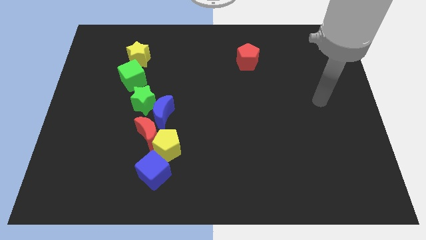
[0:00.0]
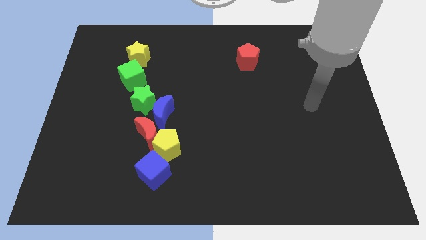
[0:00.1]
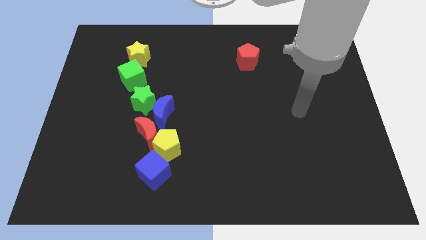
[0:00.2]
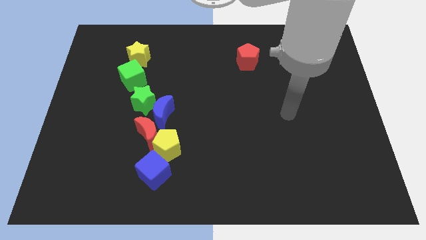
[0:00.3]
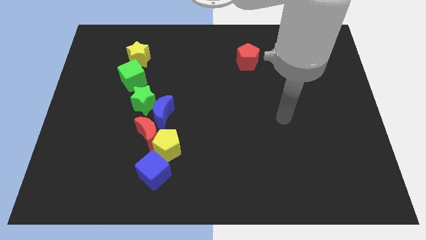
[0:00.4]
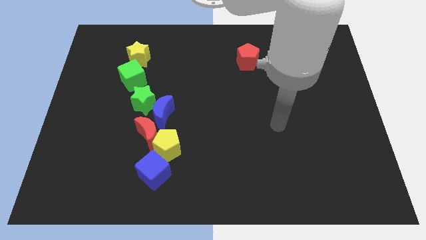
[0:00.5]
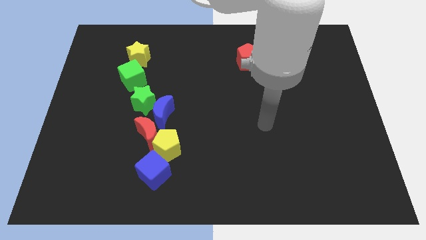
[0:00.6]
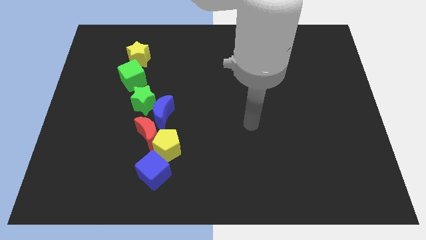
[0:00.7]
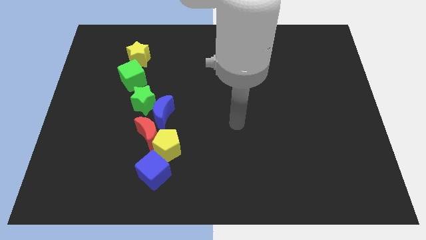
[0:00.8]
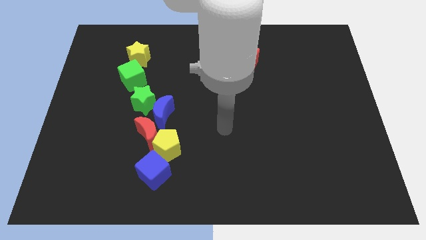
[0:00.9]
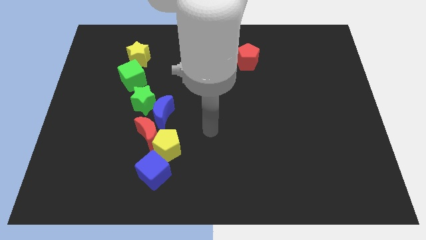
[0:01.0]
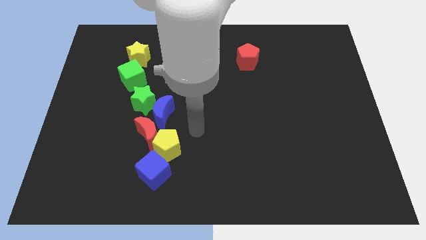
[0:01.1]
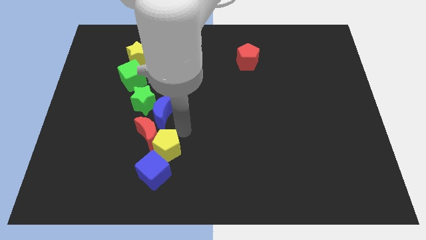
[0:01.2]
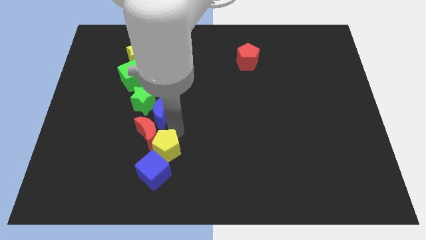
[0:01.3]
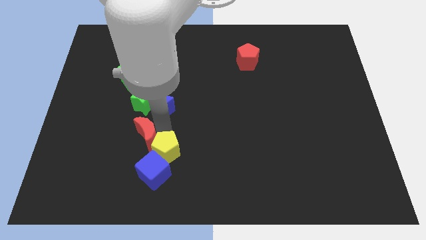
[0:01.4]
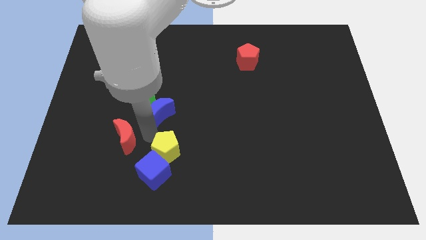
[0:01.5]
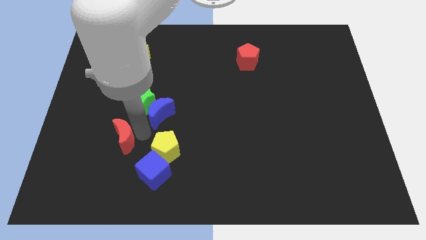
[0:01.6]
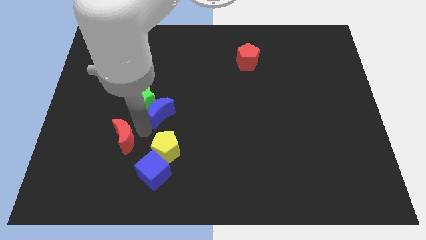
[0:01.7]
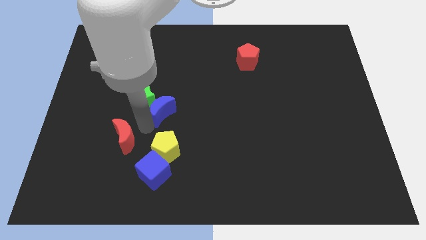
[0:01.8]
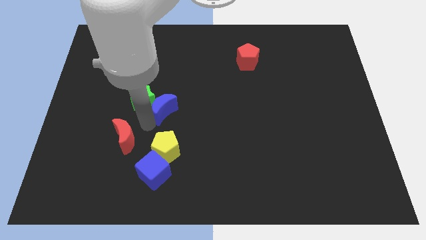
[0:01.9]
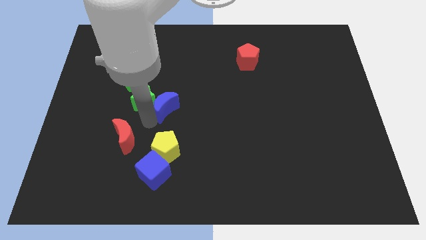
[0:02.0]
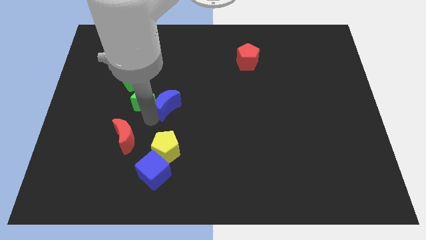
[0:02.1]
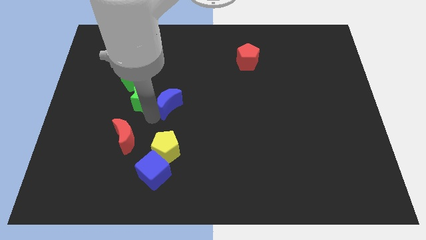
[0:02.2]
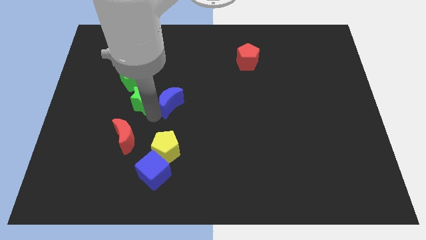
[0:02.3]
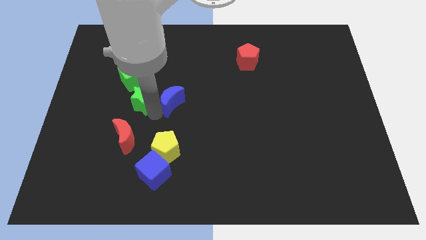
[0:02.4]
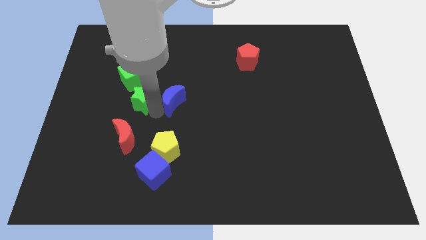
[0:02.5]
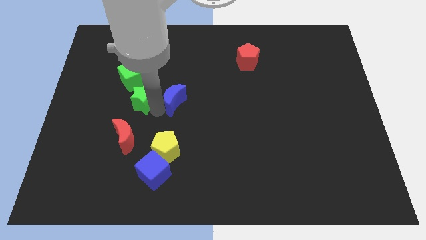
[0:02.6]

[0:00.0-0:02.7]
pull the blue moon apart from the green star, red moon, and yellow pentagon

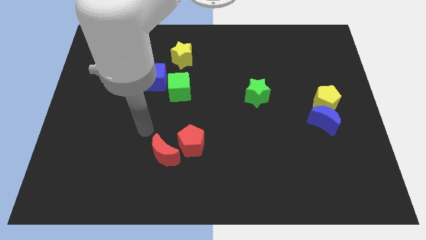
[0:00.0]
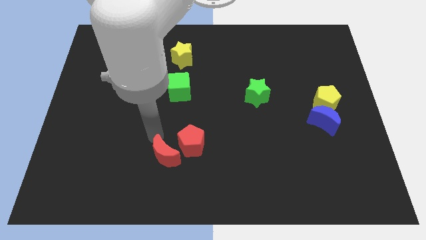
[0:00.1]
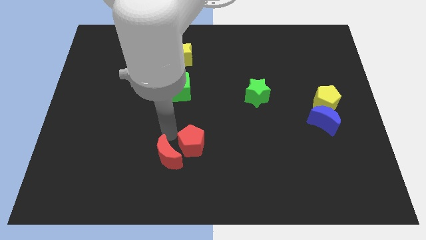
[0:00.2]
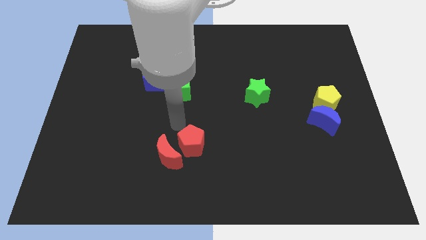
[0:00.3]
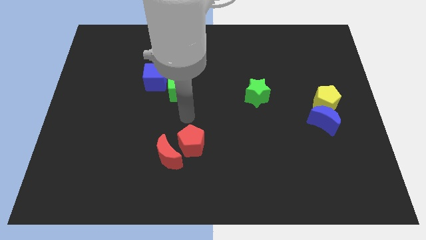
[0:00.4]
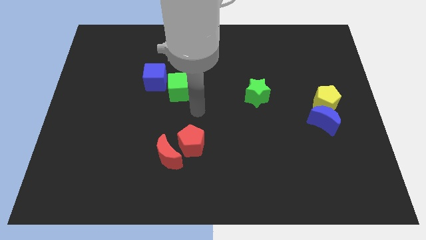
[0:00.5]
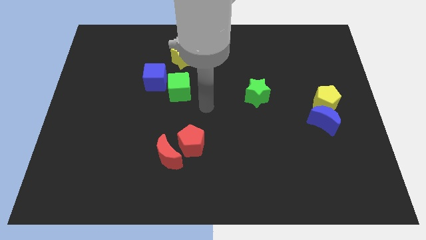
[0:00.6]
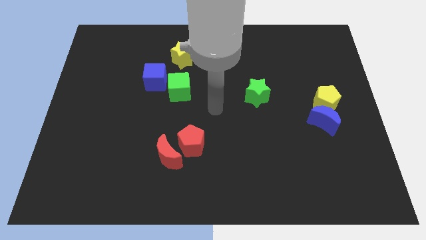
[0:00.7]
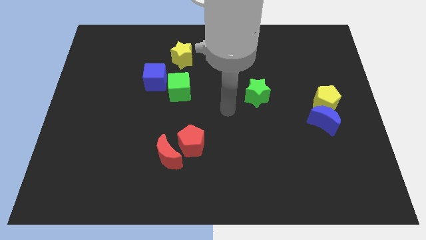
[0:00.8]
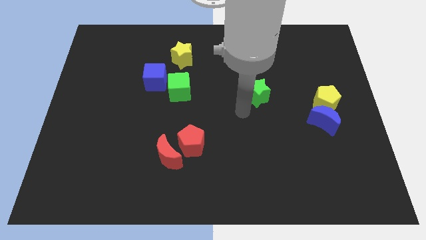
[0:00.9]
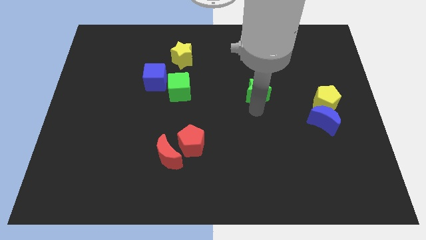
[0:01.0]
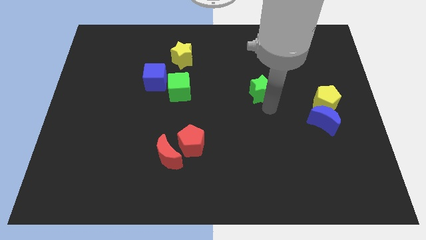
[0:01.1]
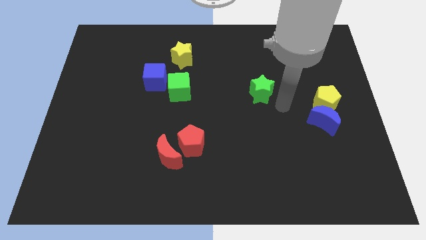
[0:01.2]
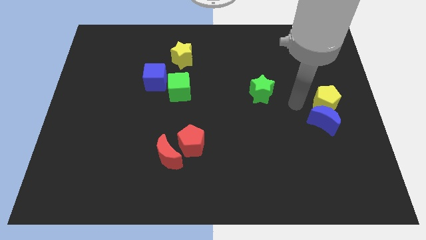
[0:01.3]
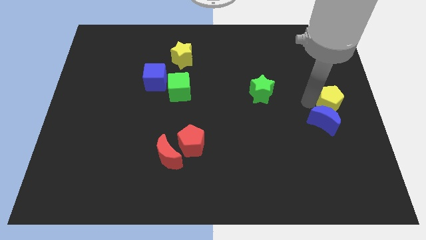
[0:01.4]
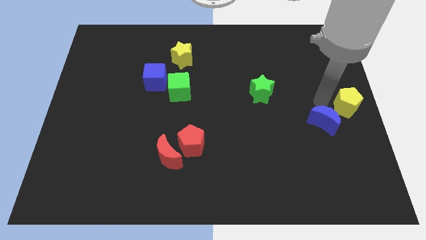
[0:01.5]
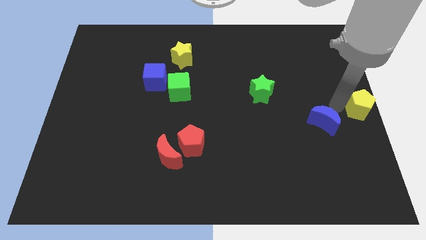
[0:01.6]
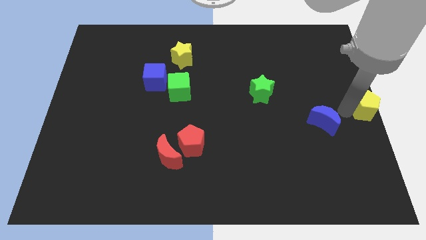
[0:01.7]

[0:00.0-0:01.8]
pull the blue moon apart from the yellow pentagon

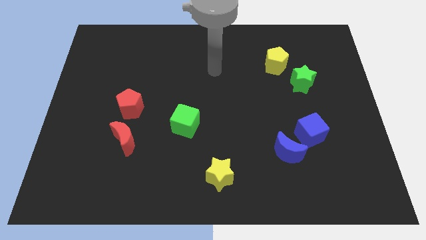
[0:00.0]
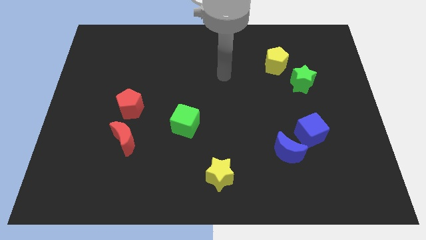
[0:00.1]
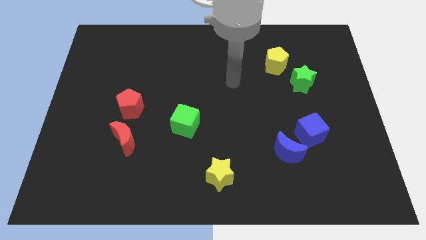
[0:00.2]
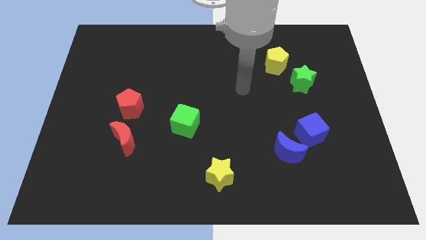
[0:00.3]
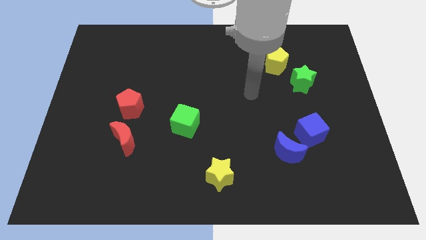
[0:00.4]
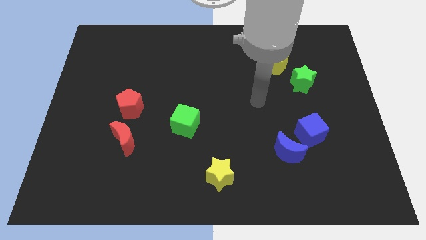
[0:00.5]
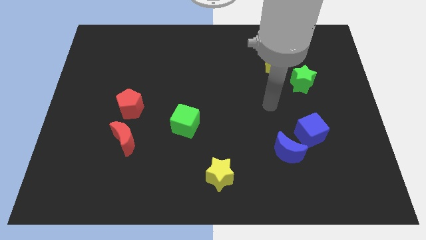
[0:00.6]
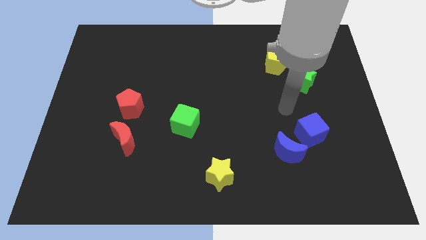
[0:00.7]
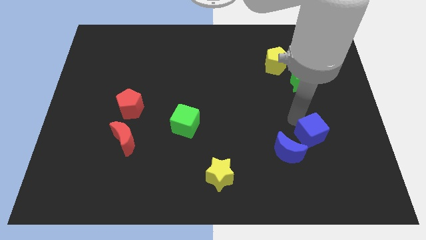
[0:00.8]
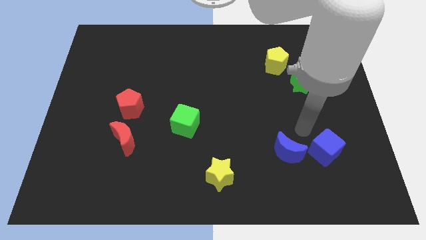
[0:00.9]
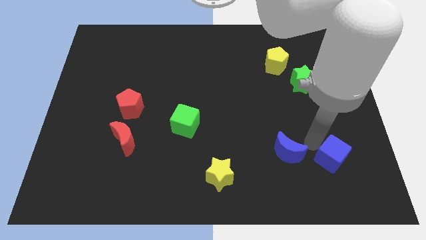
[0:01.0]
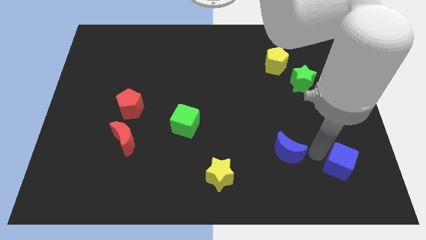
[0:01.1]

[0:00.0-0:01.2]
separate the blue moon from the blue cube

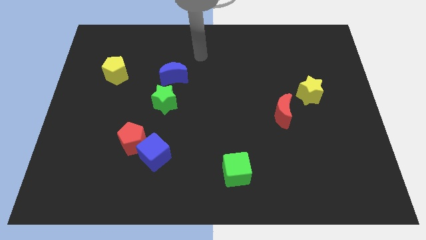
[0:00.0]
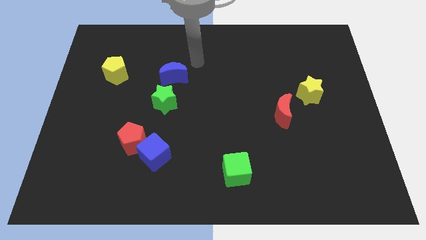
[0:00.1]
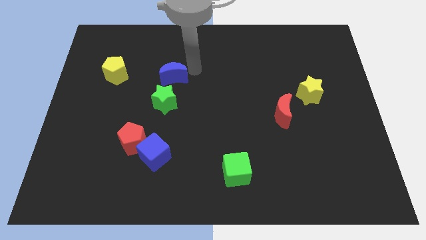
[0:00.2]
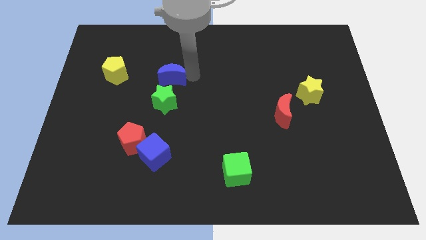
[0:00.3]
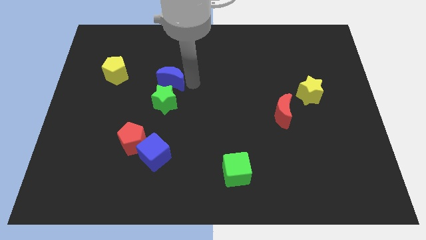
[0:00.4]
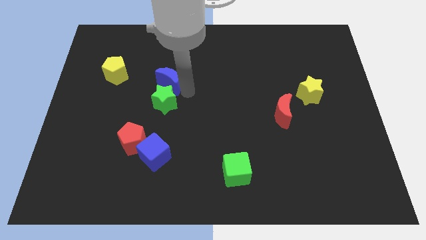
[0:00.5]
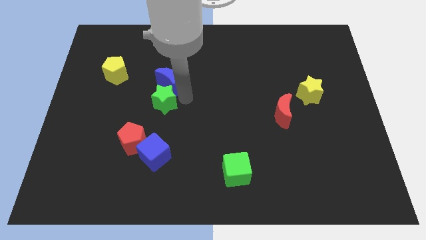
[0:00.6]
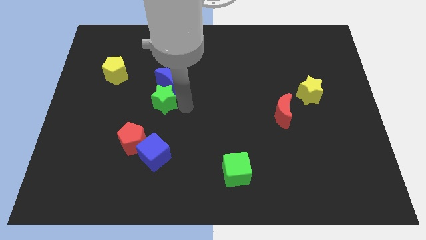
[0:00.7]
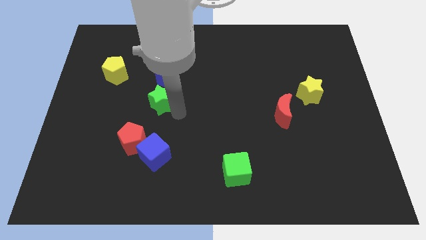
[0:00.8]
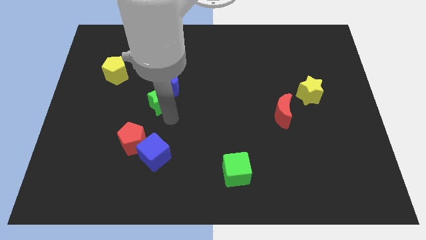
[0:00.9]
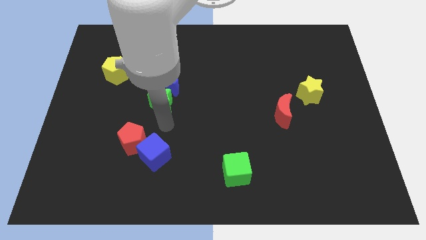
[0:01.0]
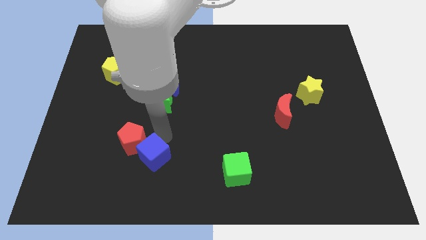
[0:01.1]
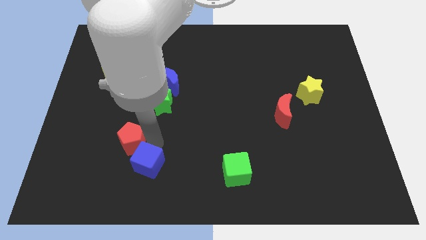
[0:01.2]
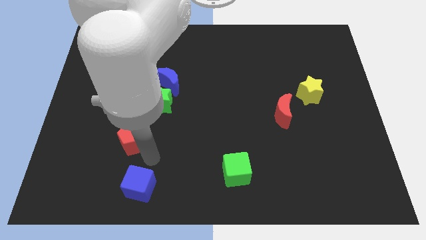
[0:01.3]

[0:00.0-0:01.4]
pull the red pentagon apart from the blue cube

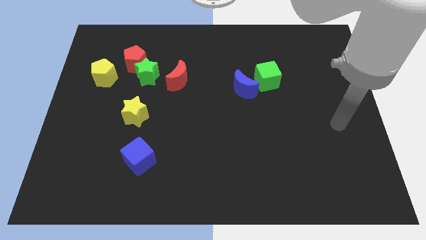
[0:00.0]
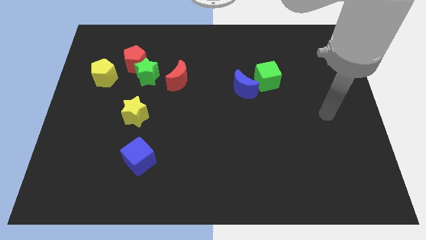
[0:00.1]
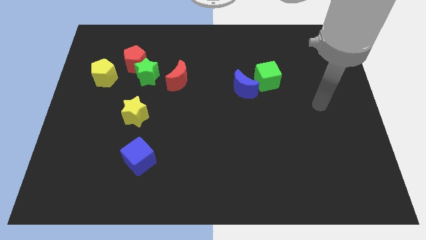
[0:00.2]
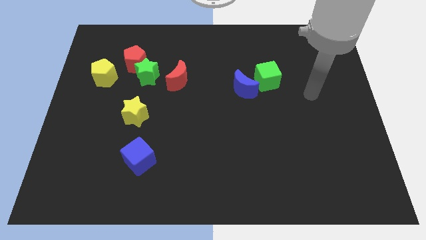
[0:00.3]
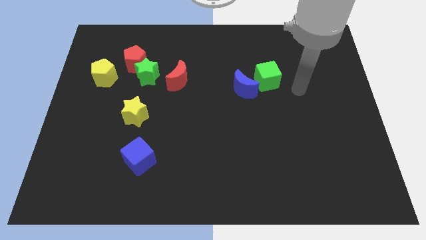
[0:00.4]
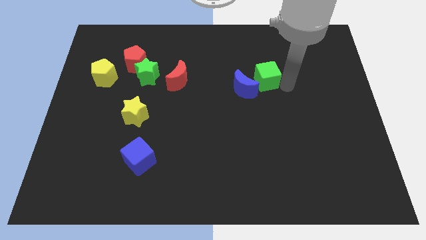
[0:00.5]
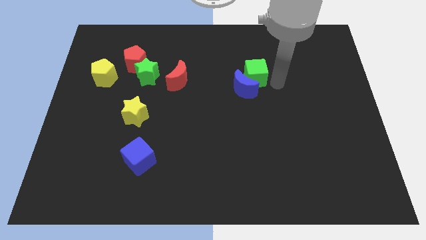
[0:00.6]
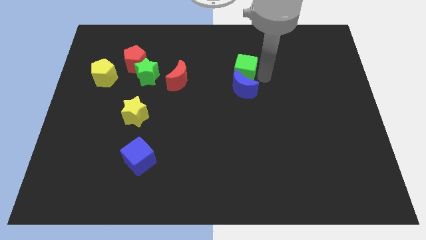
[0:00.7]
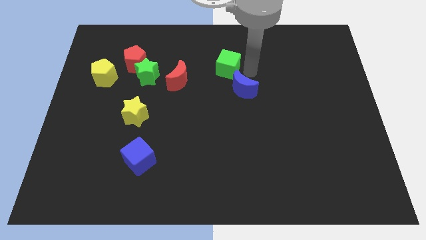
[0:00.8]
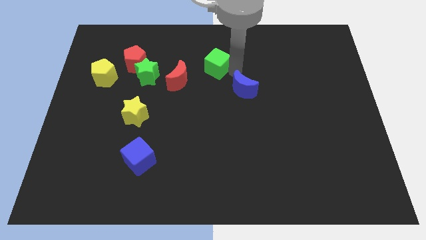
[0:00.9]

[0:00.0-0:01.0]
move the blue moon away from the green cube

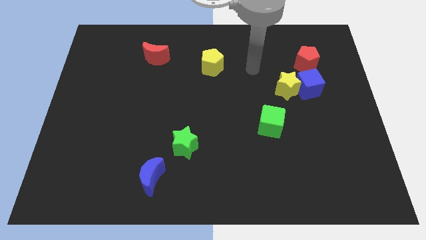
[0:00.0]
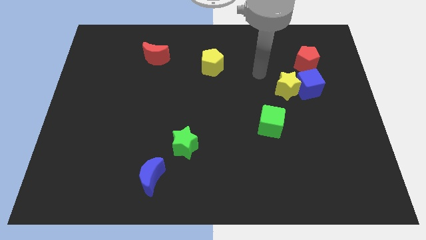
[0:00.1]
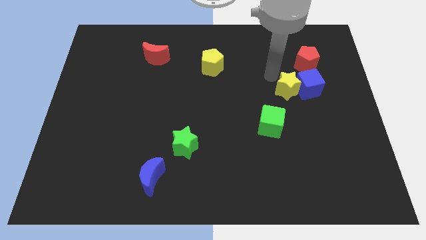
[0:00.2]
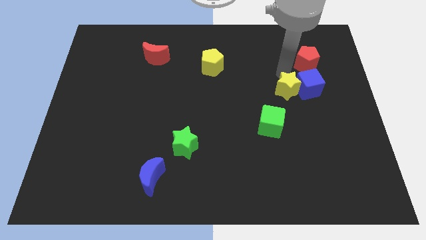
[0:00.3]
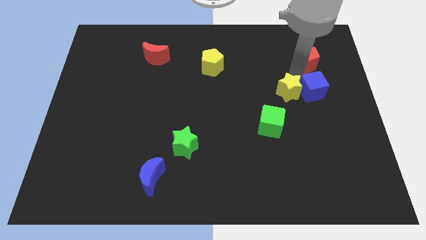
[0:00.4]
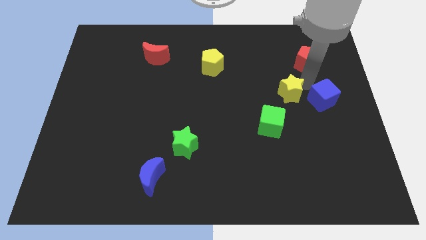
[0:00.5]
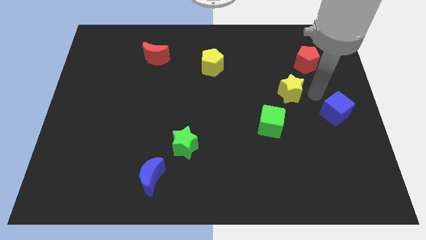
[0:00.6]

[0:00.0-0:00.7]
pull the yellow star apart from the blue cube

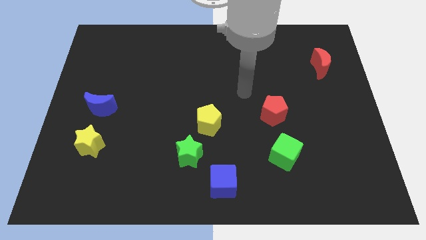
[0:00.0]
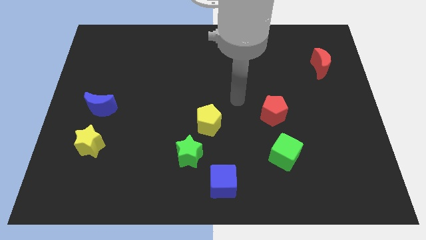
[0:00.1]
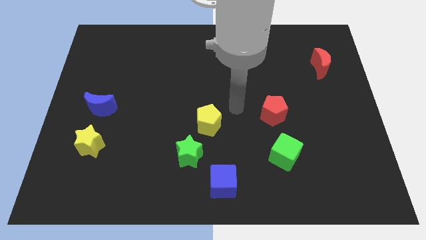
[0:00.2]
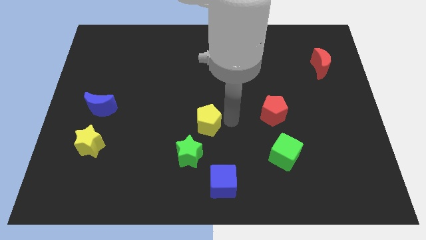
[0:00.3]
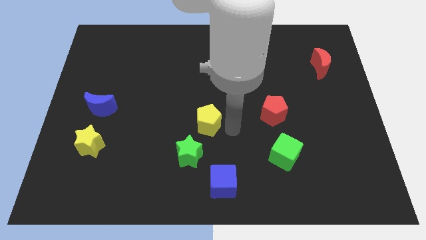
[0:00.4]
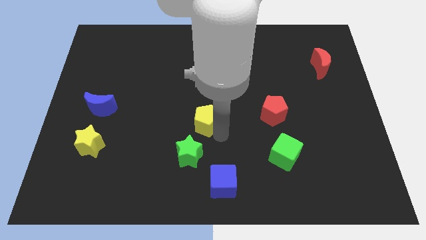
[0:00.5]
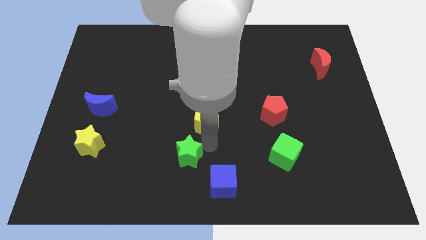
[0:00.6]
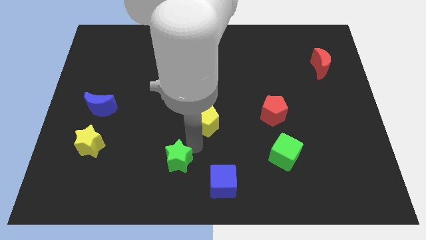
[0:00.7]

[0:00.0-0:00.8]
pull the yellow pentagon apart from the green star
